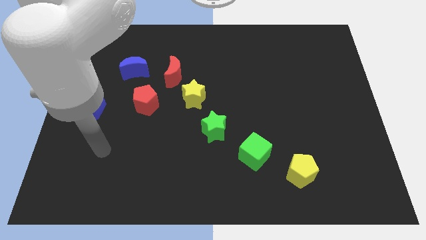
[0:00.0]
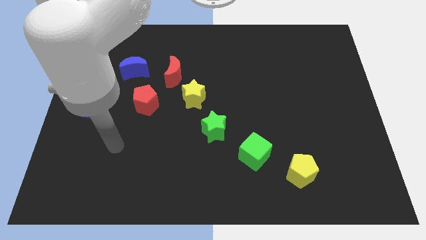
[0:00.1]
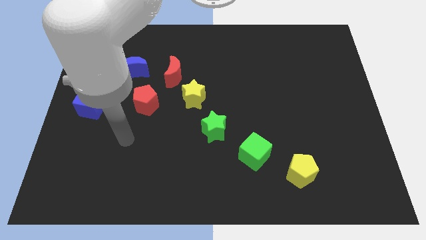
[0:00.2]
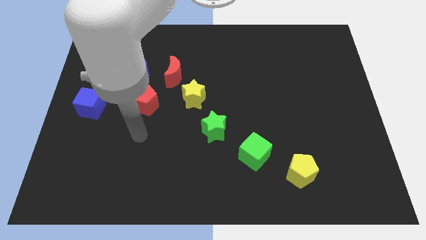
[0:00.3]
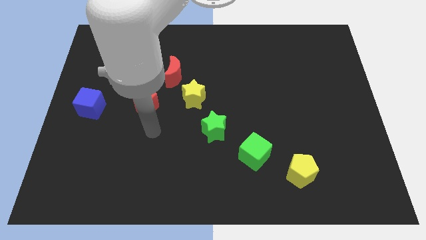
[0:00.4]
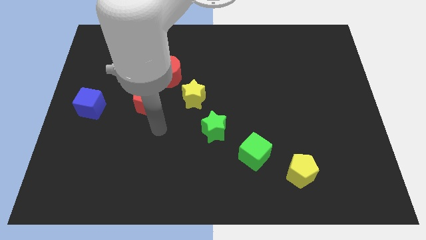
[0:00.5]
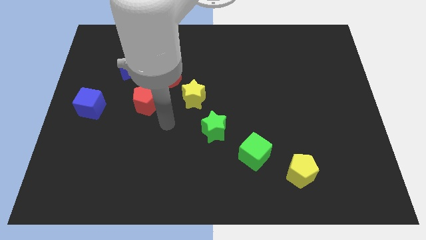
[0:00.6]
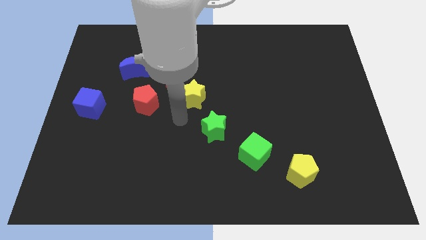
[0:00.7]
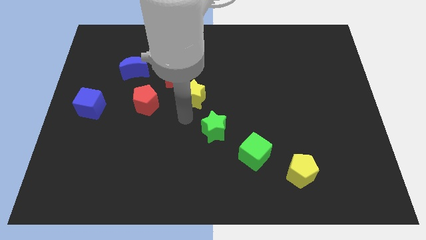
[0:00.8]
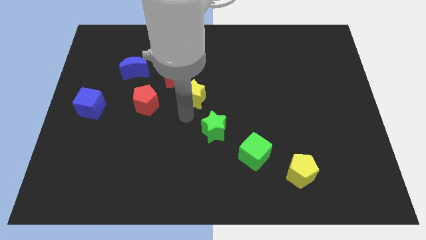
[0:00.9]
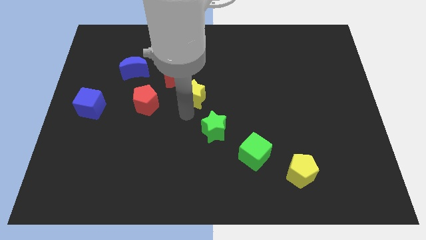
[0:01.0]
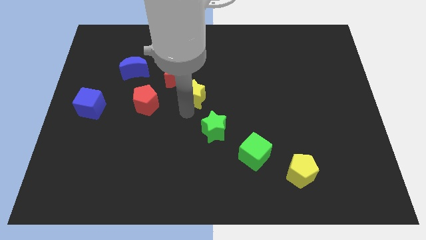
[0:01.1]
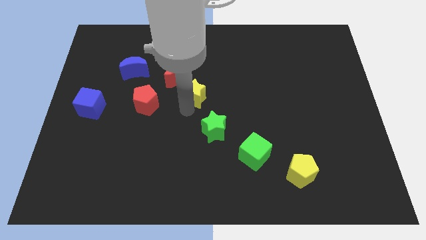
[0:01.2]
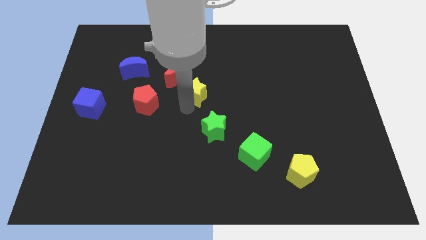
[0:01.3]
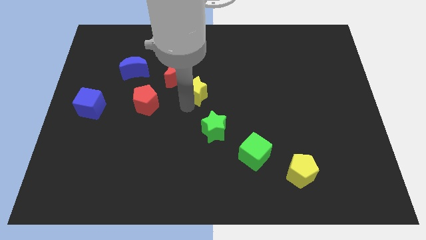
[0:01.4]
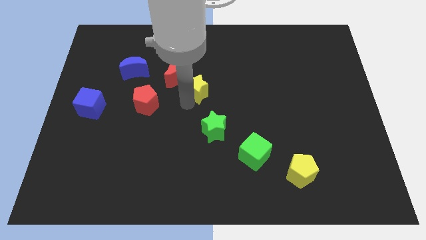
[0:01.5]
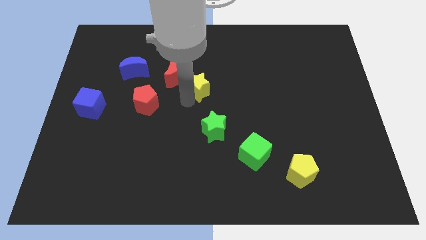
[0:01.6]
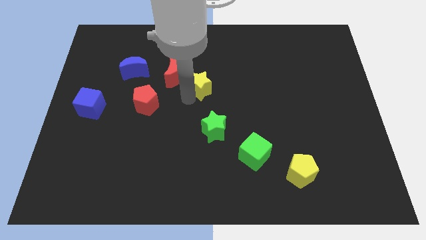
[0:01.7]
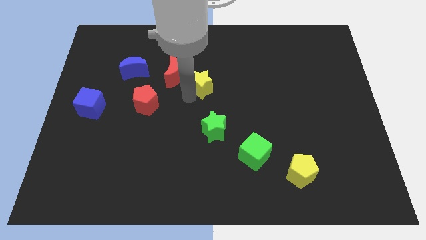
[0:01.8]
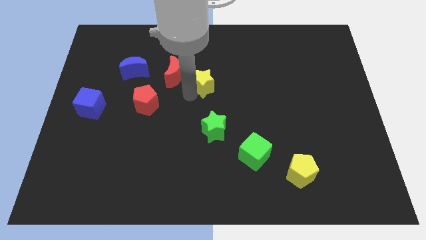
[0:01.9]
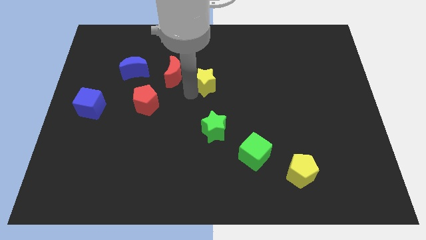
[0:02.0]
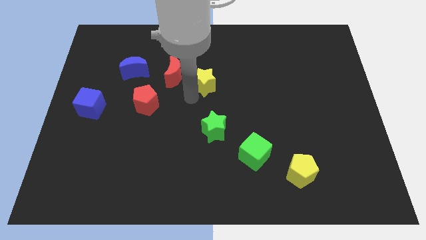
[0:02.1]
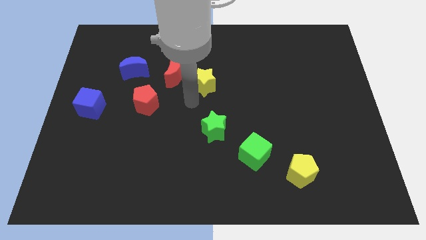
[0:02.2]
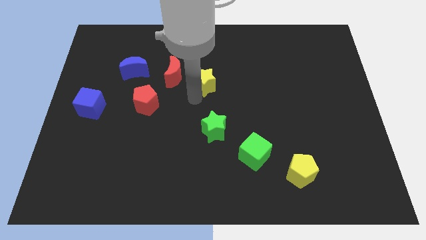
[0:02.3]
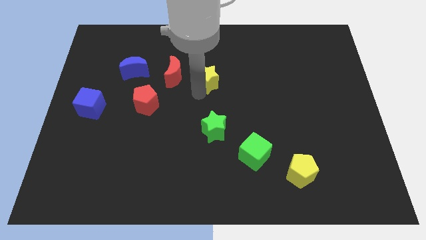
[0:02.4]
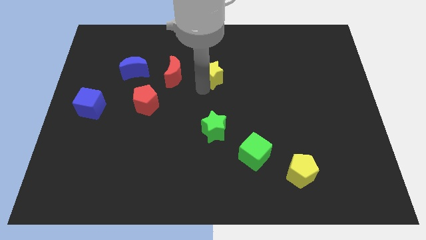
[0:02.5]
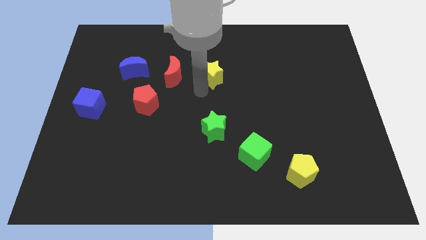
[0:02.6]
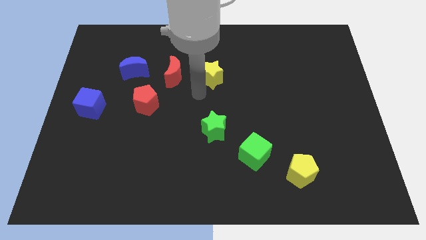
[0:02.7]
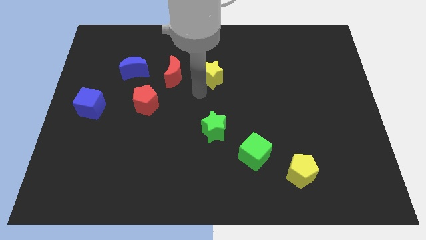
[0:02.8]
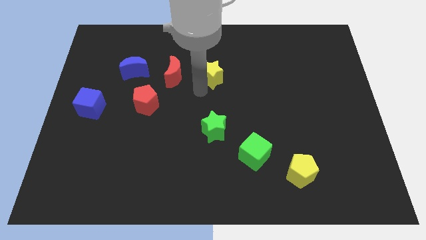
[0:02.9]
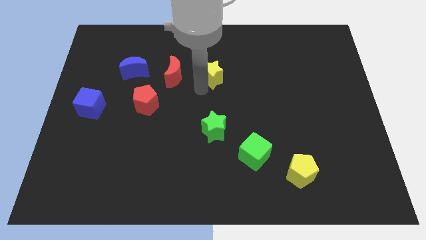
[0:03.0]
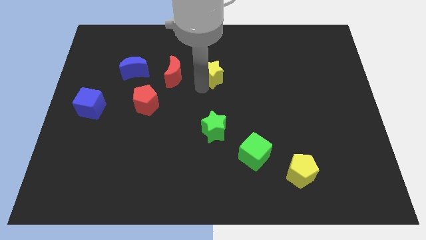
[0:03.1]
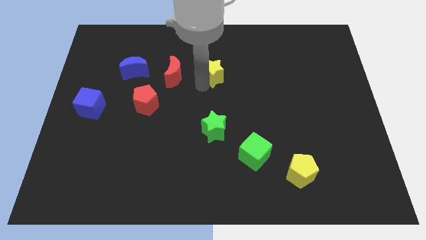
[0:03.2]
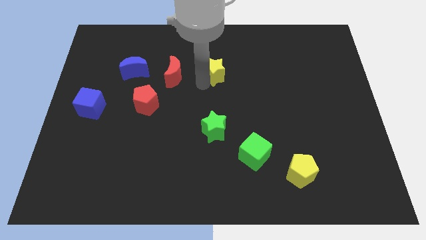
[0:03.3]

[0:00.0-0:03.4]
pull the yellow star apart from the red moon and green star

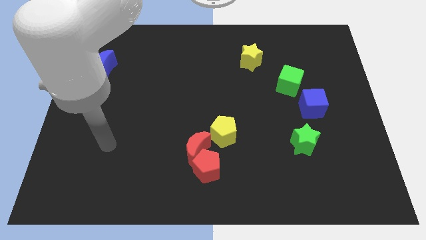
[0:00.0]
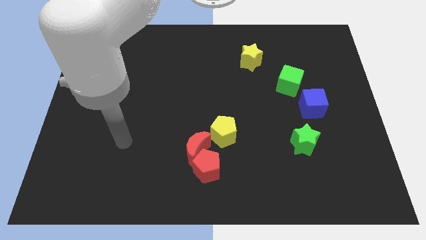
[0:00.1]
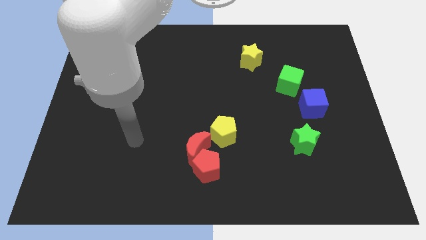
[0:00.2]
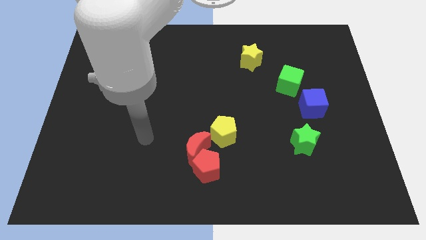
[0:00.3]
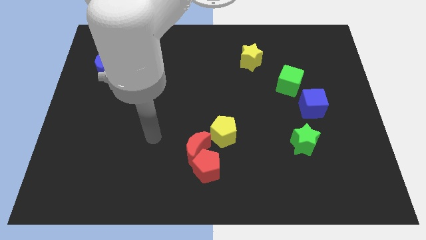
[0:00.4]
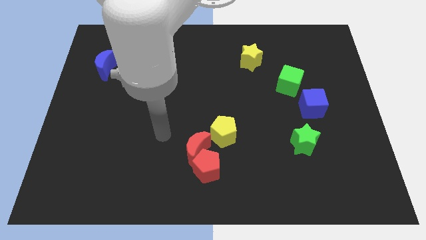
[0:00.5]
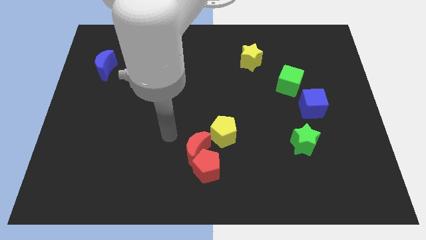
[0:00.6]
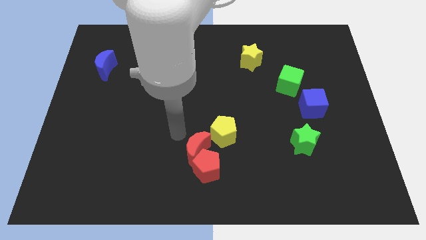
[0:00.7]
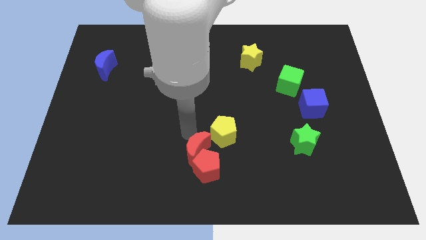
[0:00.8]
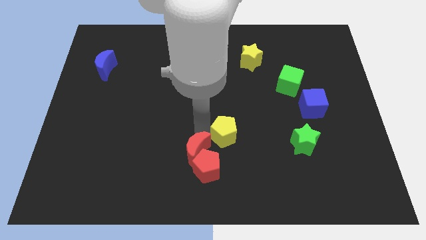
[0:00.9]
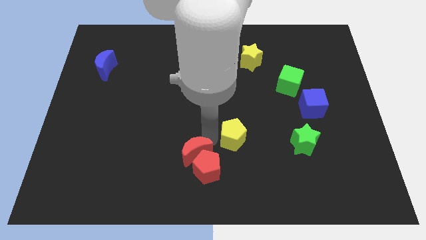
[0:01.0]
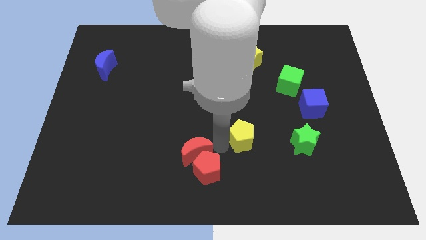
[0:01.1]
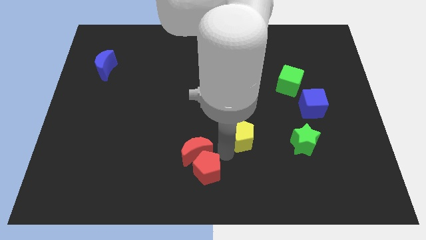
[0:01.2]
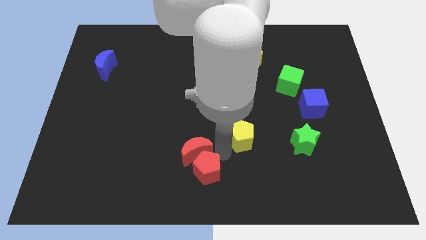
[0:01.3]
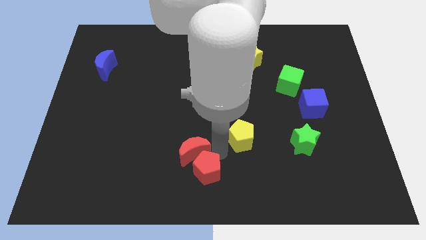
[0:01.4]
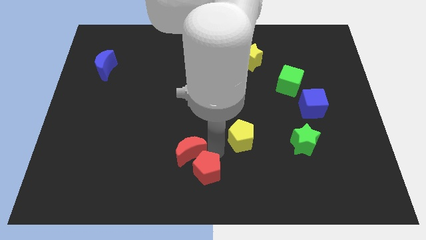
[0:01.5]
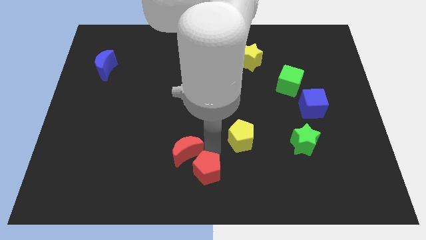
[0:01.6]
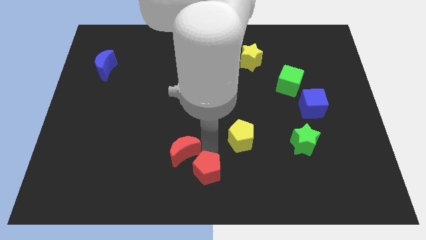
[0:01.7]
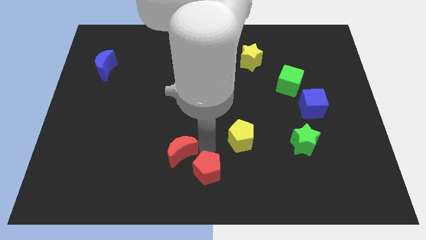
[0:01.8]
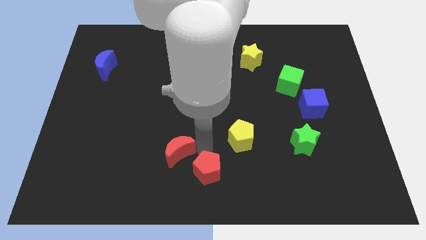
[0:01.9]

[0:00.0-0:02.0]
pull the red moon apart from the red pentagon and yellow pentagon

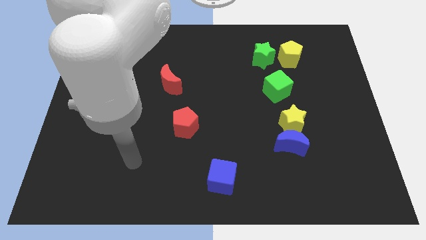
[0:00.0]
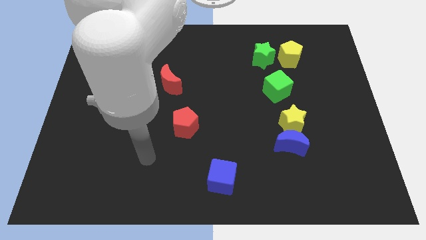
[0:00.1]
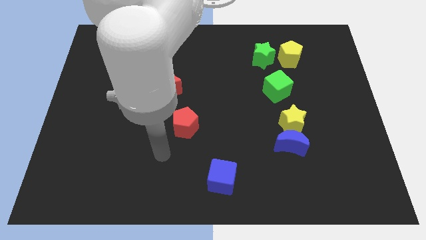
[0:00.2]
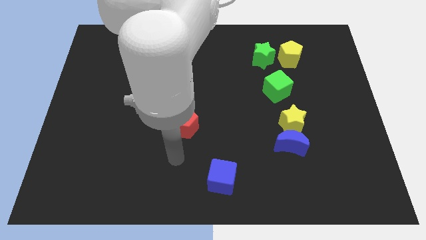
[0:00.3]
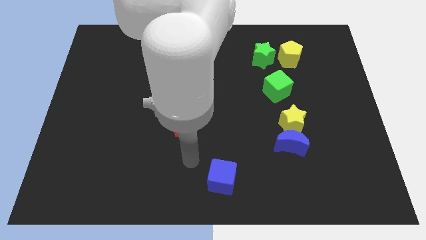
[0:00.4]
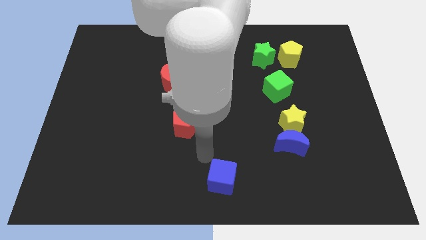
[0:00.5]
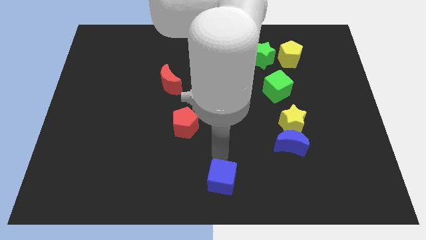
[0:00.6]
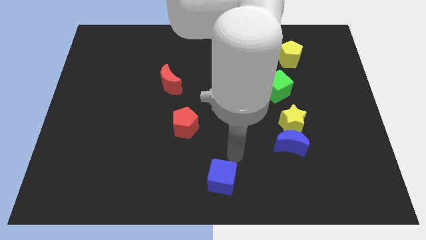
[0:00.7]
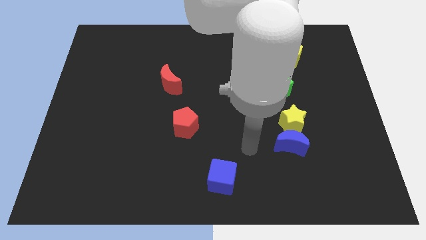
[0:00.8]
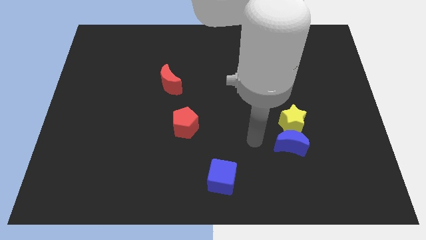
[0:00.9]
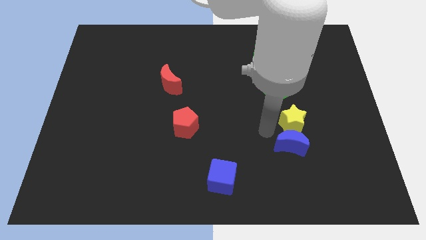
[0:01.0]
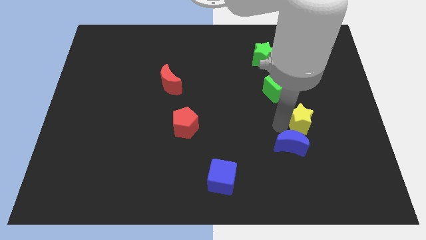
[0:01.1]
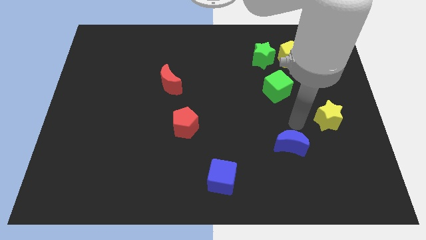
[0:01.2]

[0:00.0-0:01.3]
move the blue moon away from the yellow star

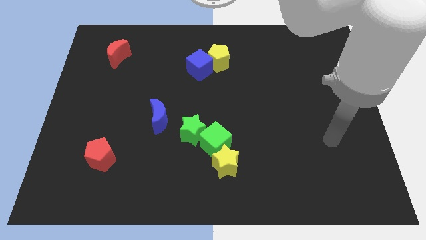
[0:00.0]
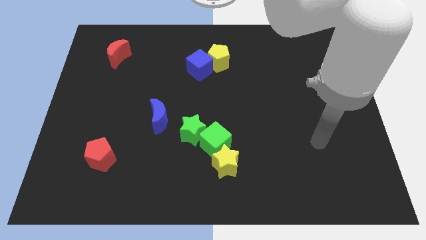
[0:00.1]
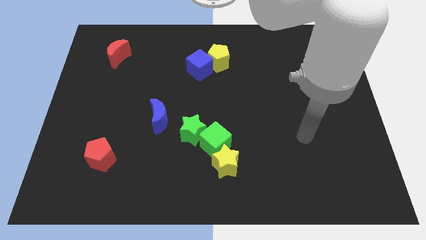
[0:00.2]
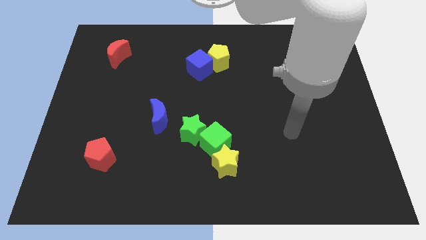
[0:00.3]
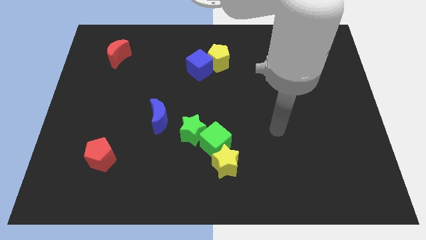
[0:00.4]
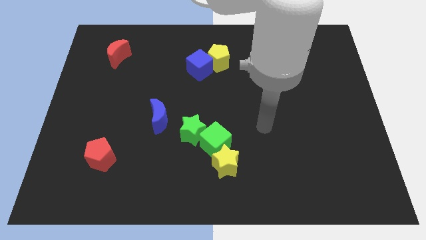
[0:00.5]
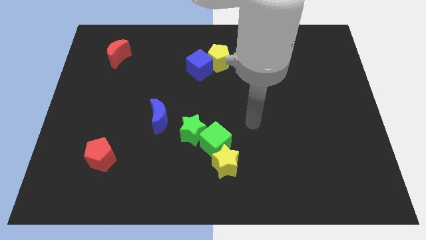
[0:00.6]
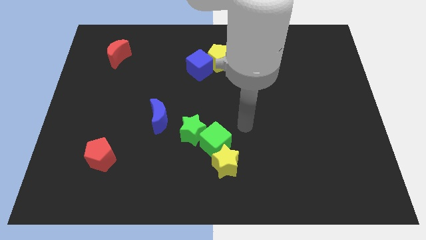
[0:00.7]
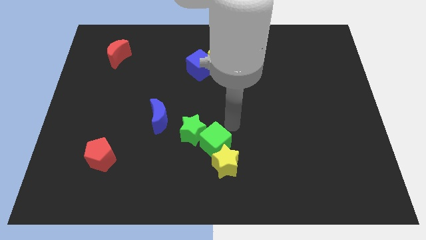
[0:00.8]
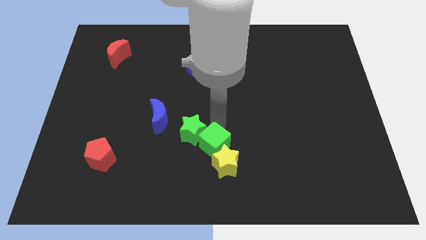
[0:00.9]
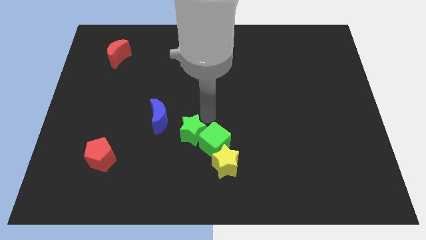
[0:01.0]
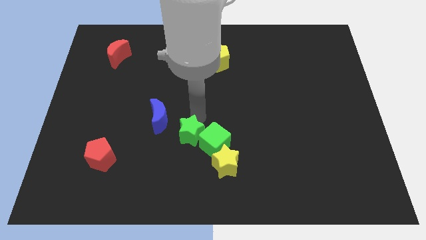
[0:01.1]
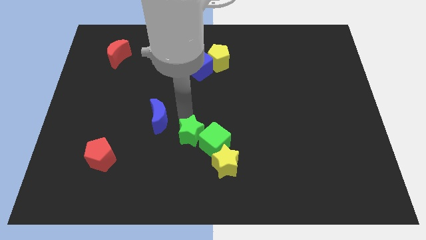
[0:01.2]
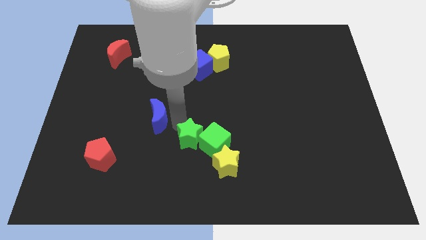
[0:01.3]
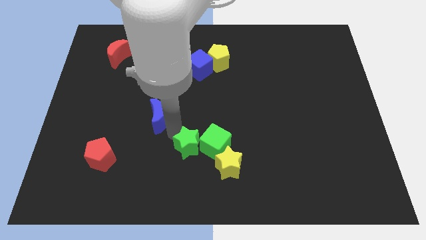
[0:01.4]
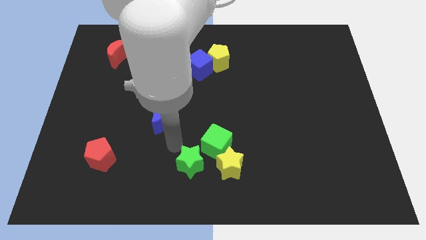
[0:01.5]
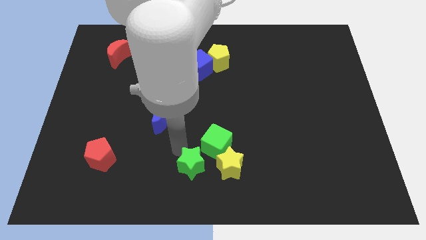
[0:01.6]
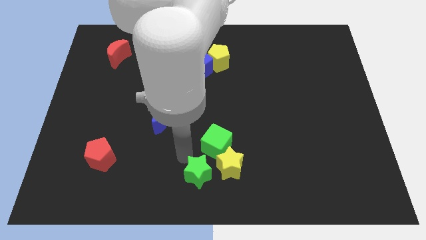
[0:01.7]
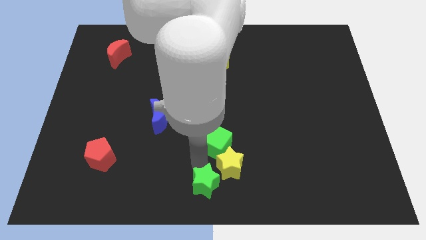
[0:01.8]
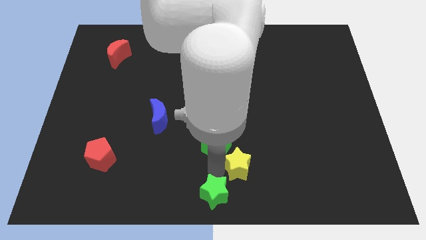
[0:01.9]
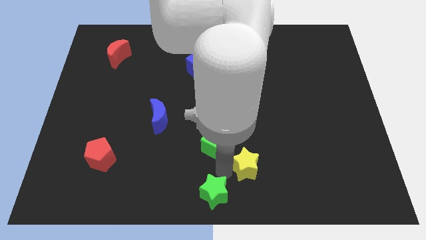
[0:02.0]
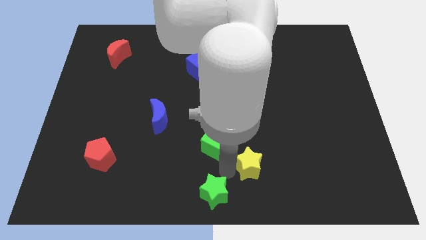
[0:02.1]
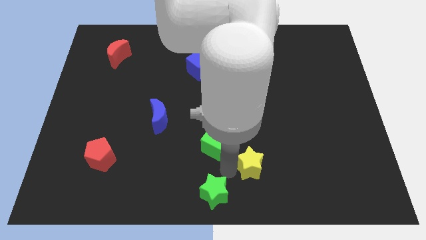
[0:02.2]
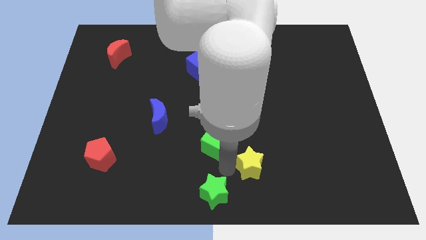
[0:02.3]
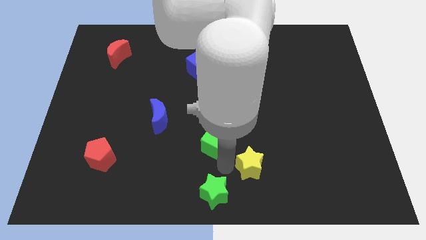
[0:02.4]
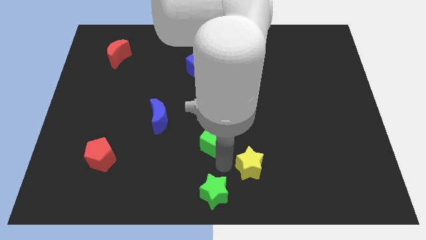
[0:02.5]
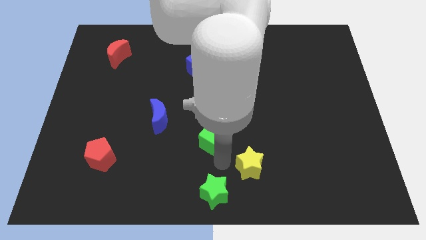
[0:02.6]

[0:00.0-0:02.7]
pull the green cube apart from the green star and yellow star
